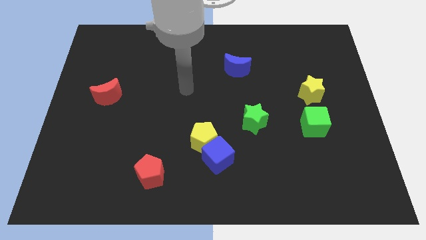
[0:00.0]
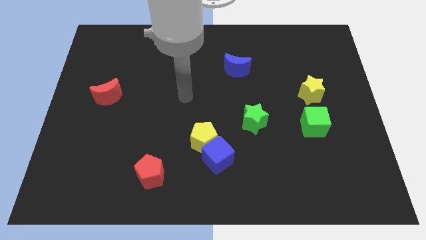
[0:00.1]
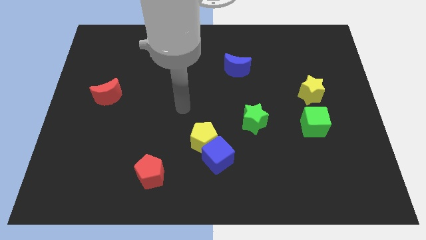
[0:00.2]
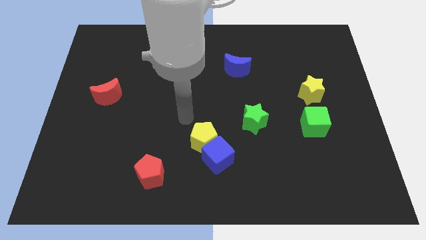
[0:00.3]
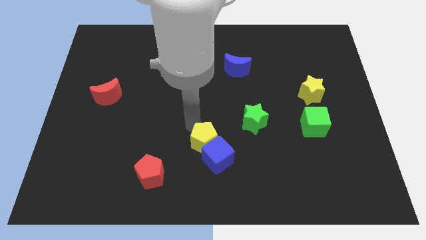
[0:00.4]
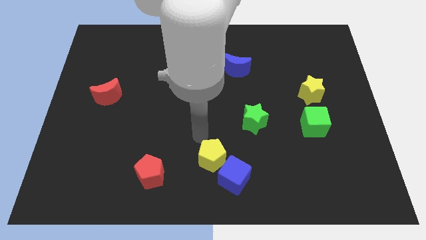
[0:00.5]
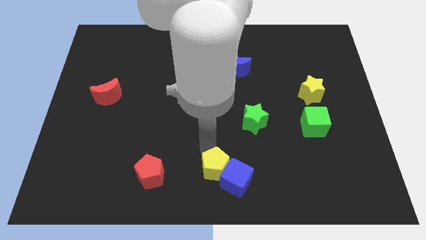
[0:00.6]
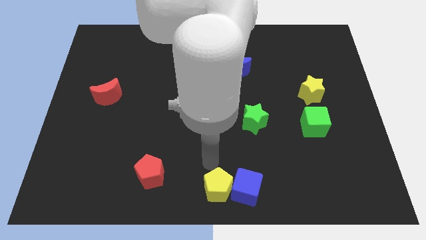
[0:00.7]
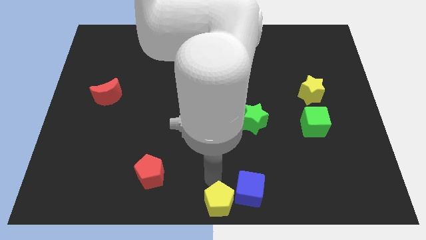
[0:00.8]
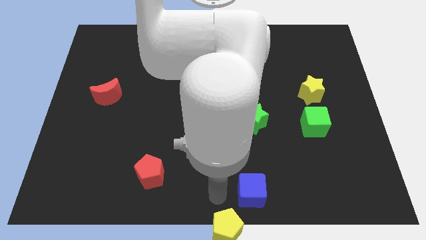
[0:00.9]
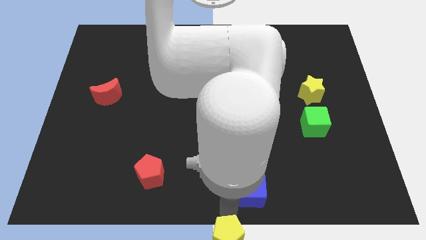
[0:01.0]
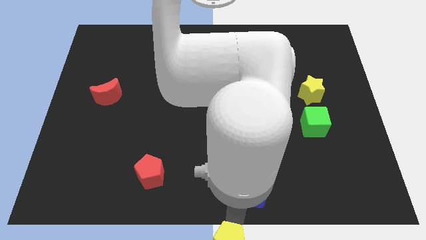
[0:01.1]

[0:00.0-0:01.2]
pull the blue cube apart from the yellow pentagon

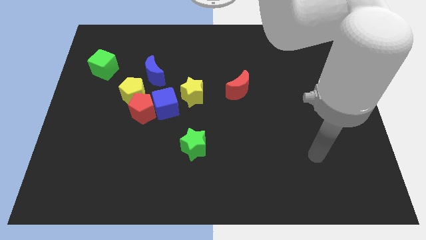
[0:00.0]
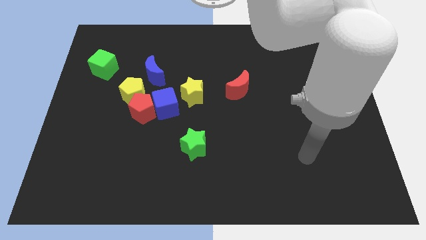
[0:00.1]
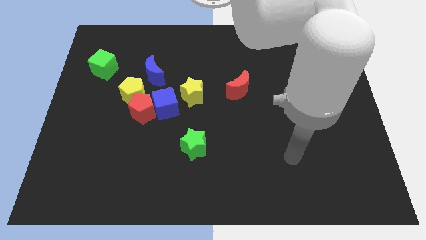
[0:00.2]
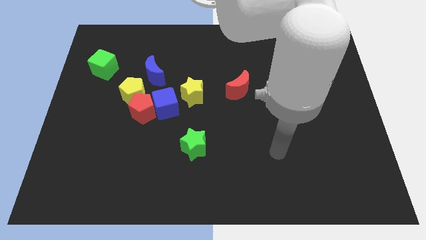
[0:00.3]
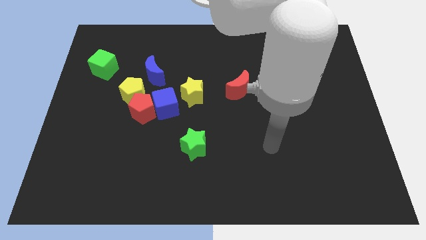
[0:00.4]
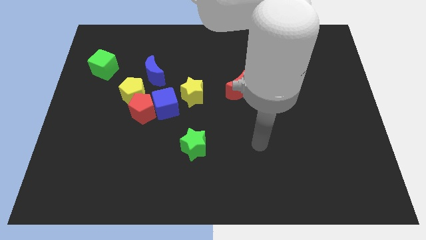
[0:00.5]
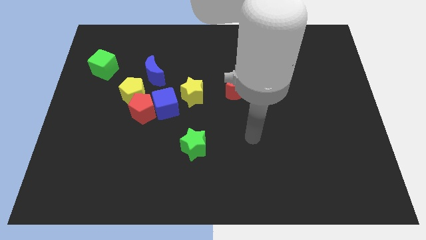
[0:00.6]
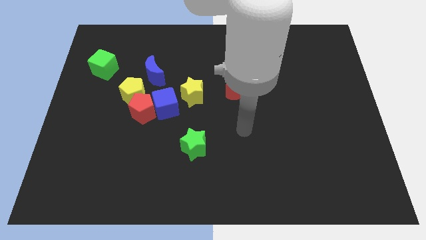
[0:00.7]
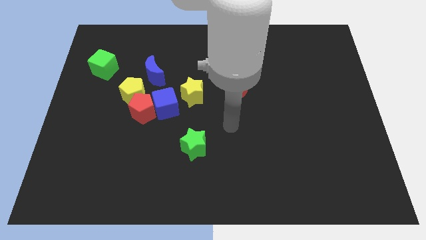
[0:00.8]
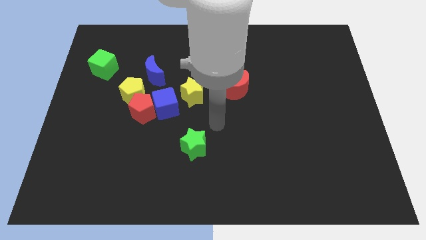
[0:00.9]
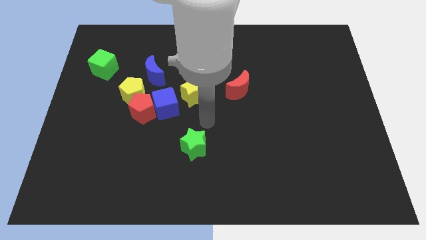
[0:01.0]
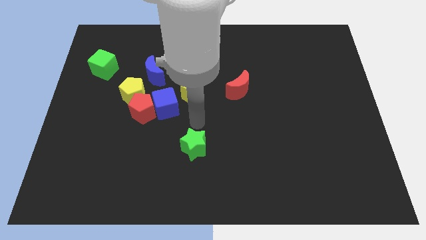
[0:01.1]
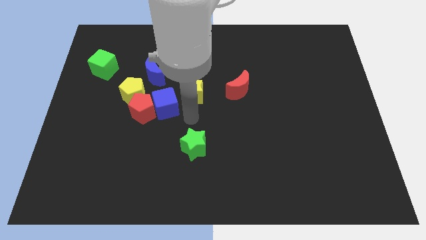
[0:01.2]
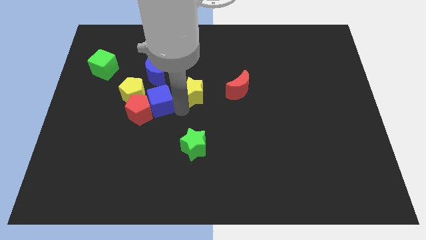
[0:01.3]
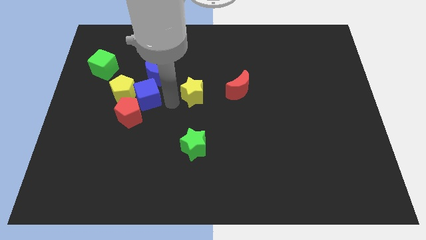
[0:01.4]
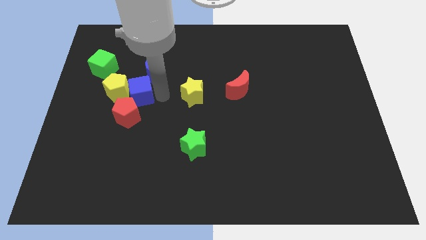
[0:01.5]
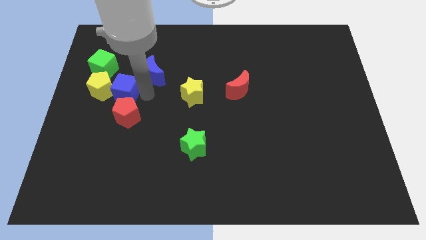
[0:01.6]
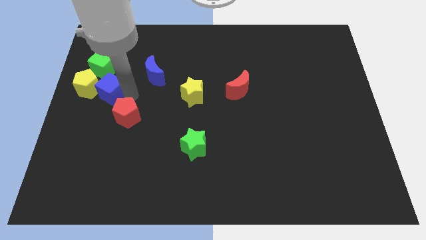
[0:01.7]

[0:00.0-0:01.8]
separate the red pentagon from the blue cube and yellow pentagon

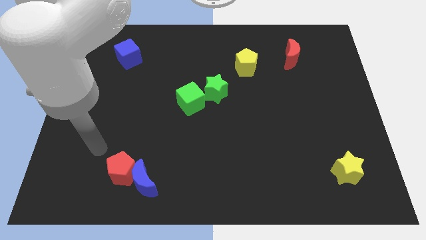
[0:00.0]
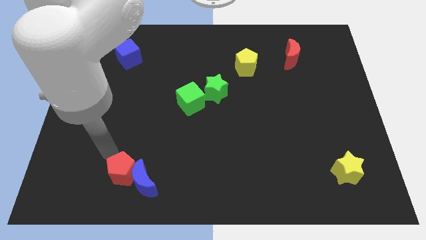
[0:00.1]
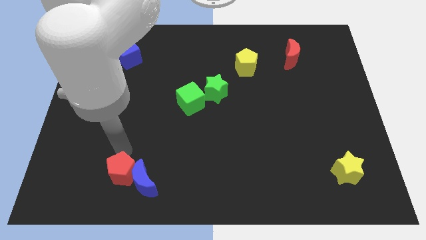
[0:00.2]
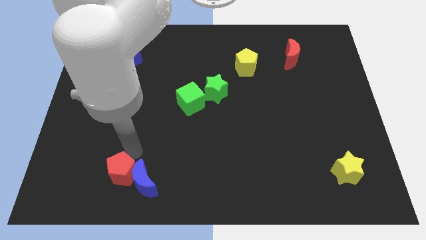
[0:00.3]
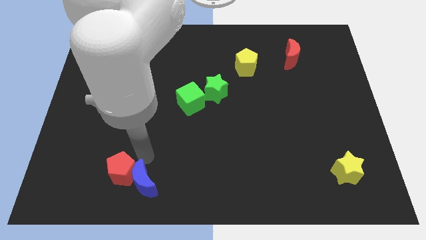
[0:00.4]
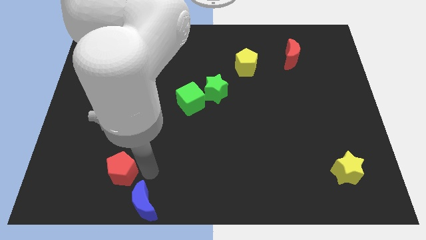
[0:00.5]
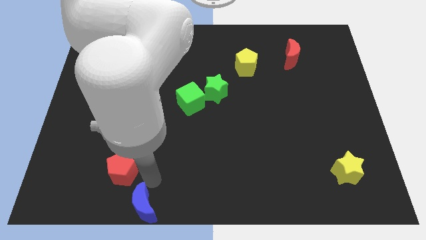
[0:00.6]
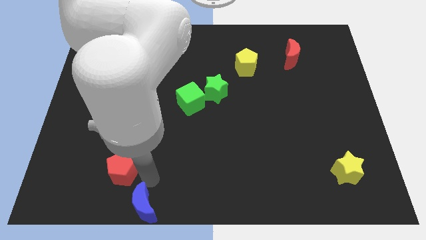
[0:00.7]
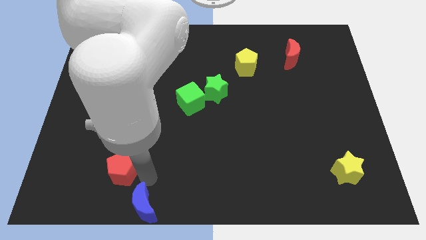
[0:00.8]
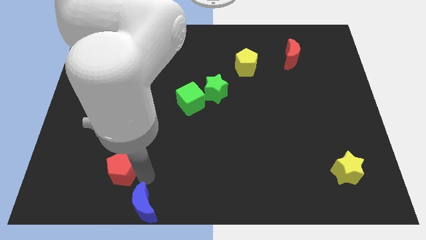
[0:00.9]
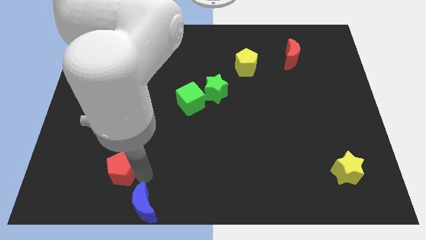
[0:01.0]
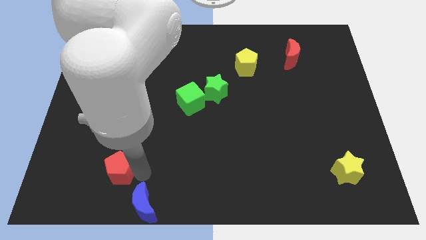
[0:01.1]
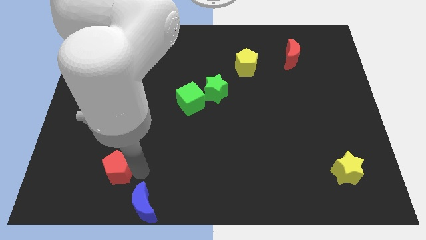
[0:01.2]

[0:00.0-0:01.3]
separate the red pentagon from the blue moon

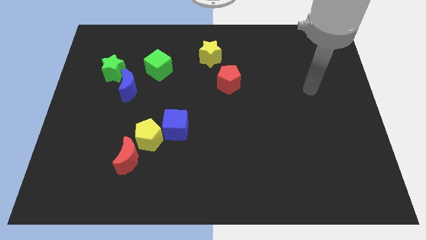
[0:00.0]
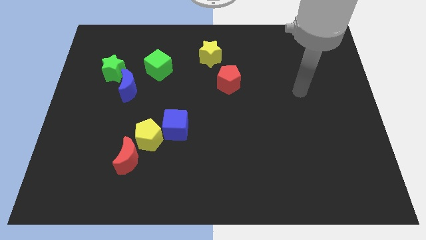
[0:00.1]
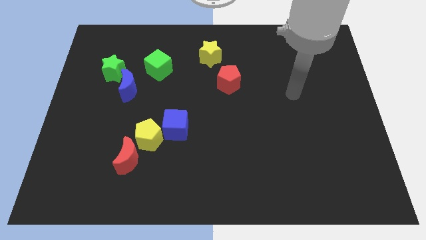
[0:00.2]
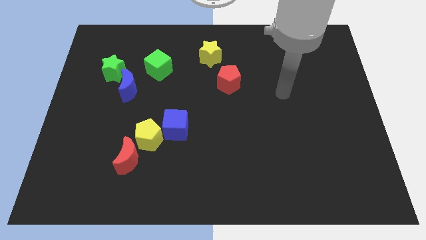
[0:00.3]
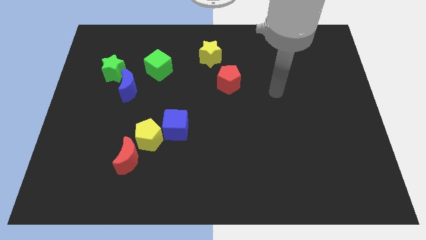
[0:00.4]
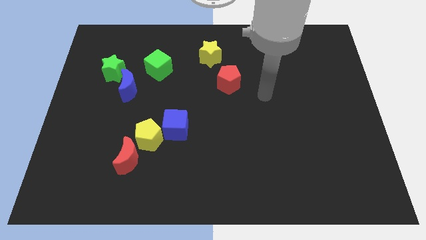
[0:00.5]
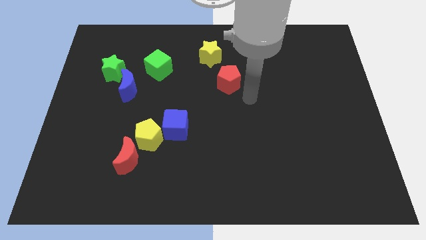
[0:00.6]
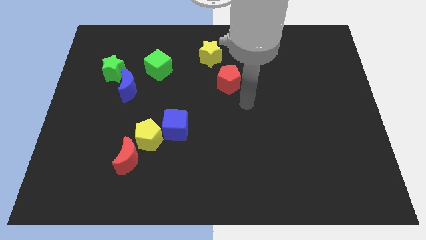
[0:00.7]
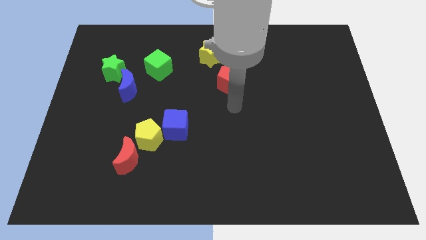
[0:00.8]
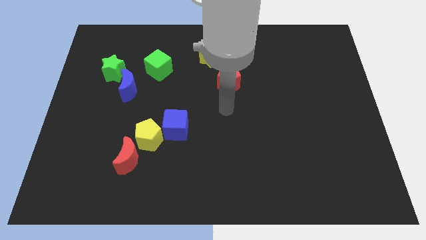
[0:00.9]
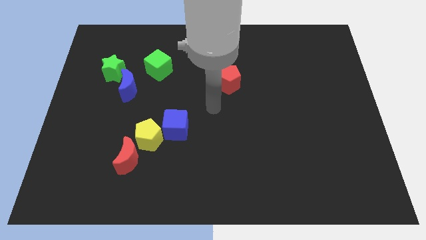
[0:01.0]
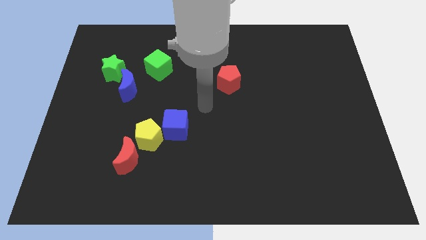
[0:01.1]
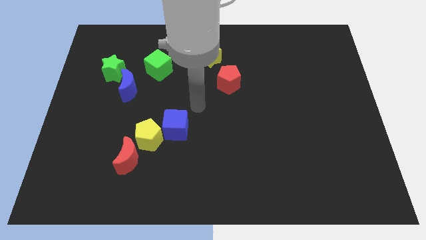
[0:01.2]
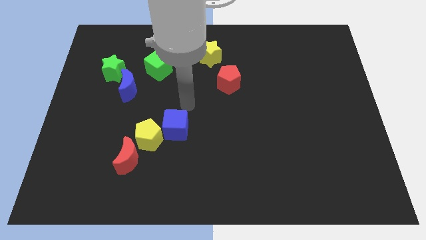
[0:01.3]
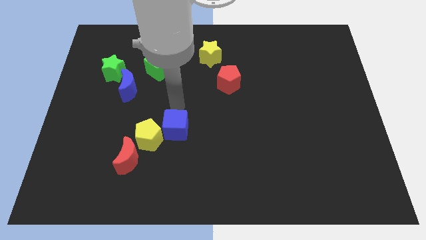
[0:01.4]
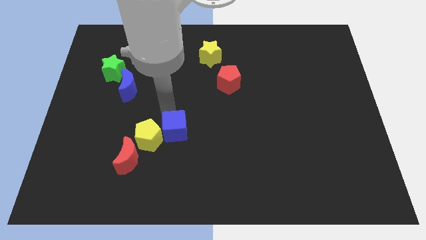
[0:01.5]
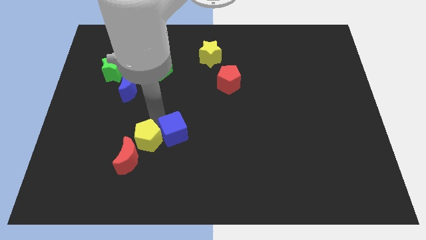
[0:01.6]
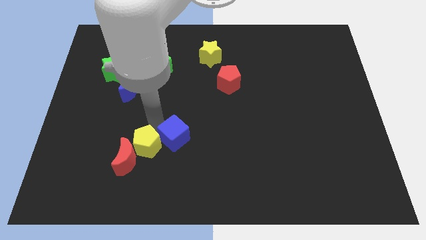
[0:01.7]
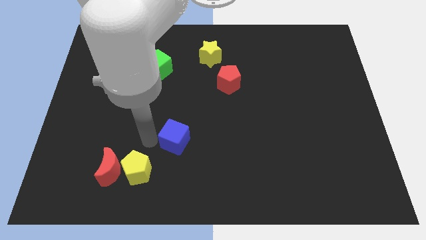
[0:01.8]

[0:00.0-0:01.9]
separate the blue cube from the yellow pentagon

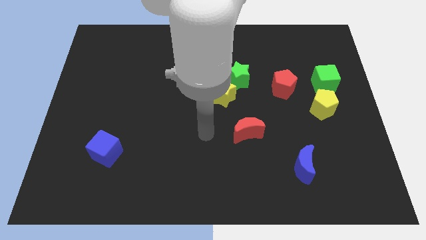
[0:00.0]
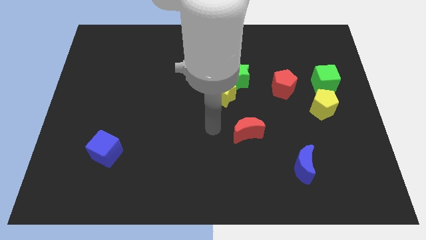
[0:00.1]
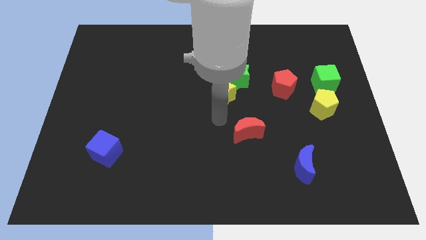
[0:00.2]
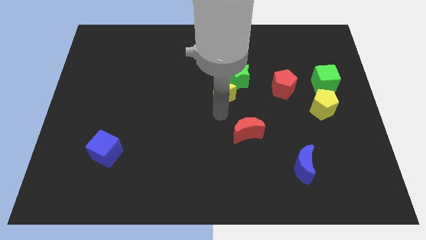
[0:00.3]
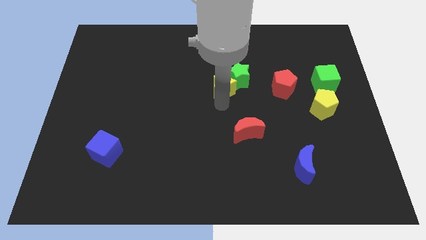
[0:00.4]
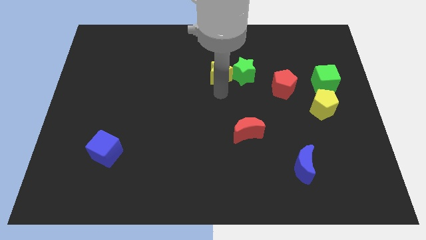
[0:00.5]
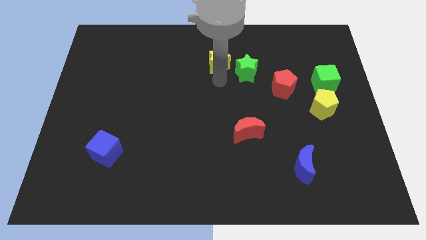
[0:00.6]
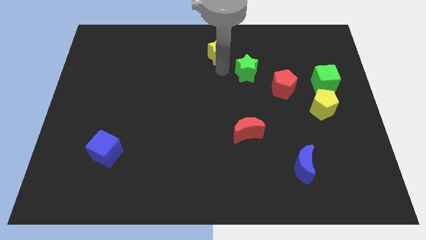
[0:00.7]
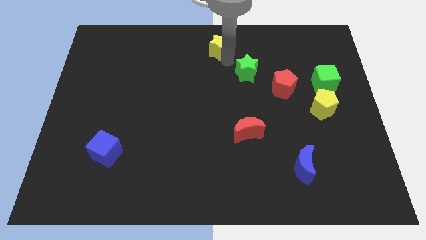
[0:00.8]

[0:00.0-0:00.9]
separate the green star from the yellow star

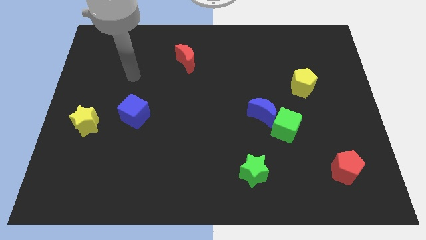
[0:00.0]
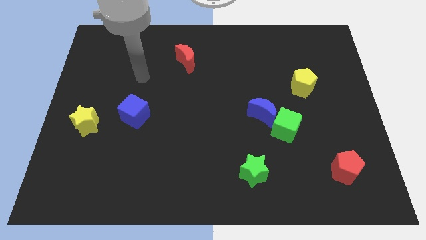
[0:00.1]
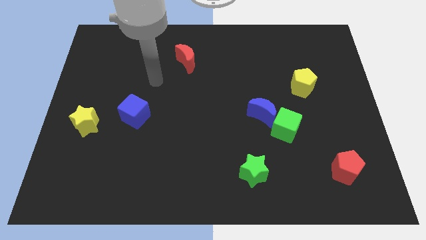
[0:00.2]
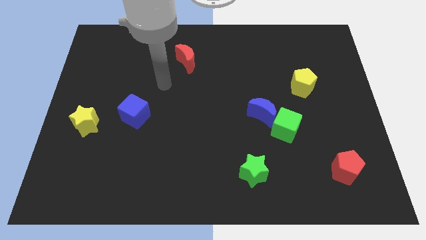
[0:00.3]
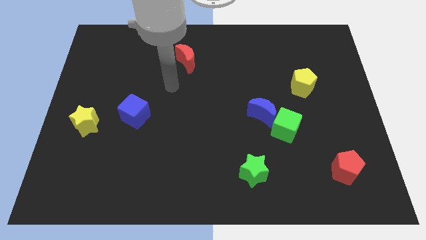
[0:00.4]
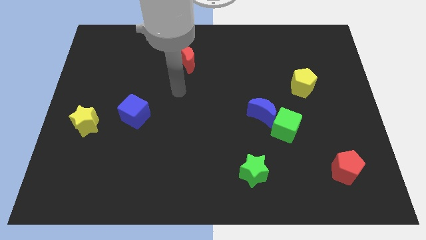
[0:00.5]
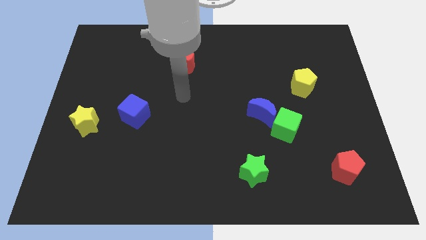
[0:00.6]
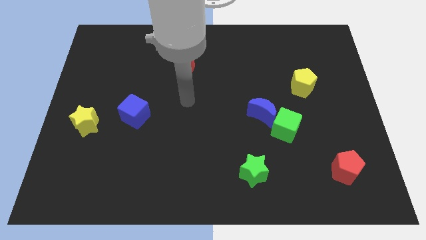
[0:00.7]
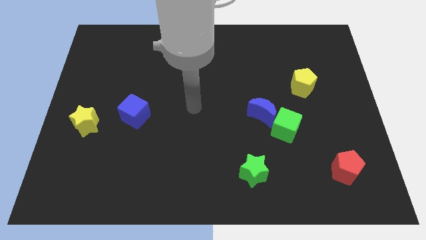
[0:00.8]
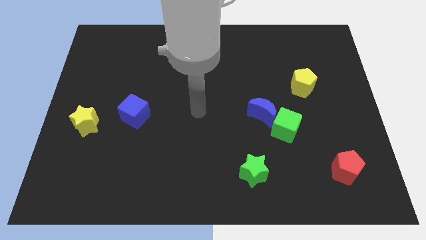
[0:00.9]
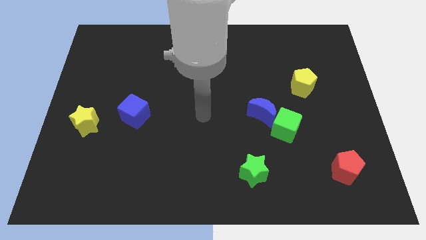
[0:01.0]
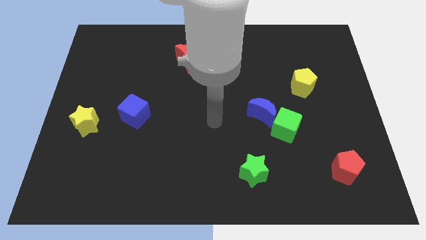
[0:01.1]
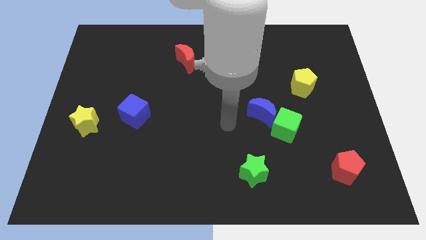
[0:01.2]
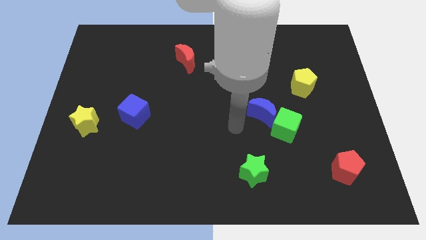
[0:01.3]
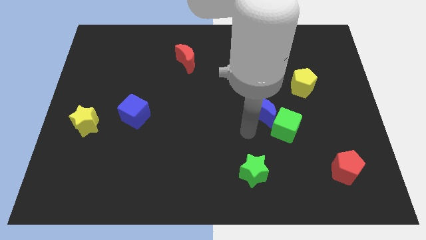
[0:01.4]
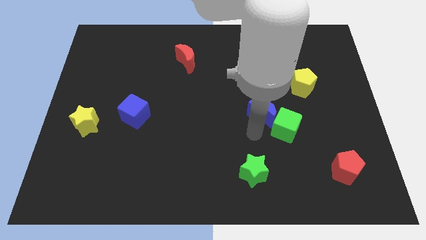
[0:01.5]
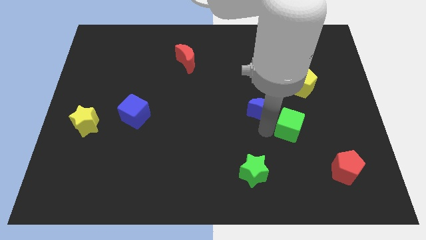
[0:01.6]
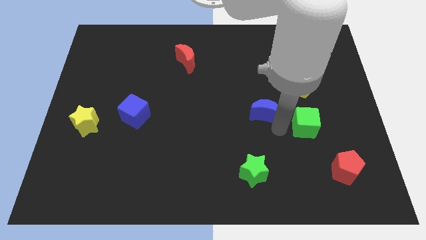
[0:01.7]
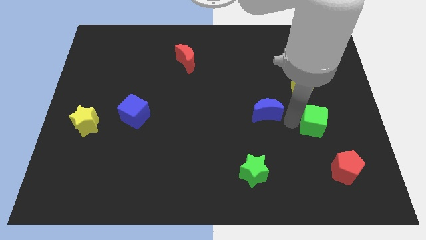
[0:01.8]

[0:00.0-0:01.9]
separate the blue moon from the green cube

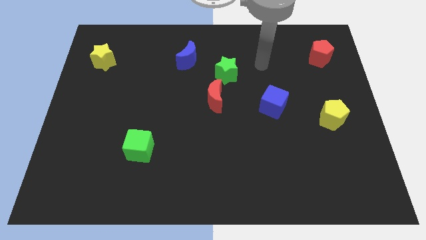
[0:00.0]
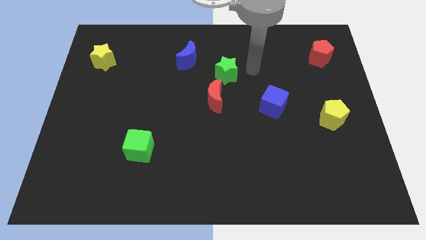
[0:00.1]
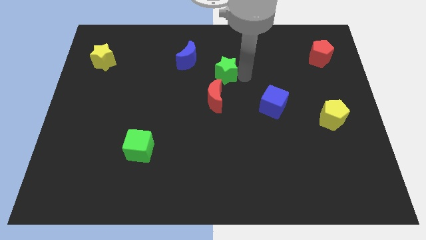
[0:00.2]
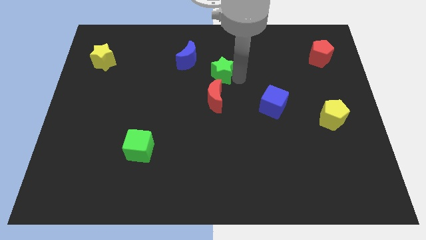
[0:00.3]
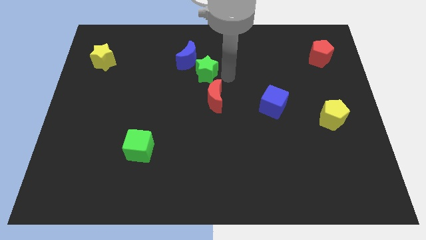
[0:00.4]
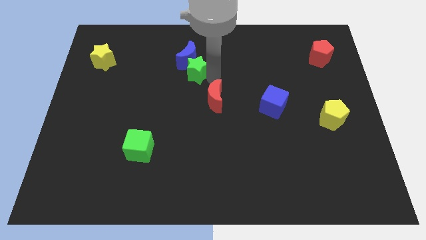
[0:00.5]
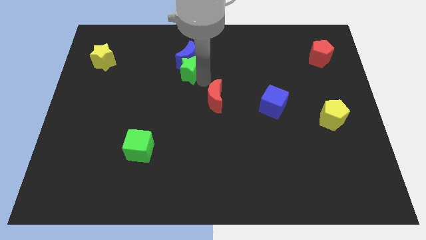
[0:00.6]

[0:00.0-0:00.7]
pull the red moon apart from the green star
